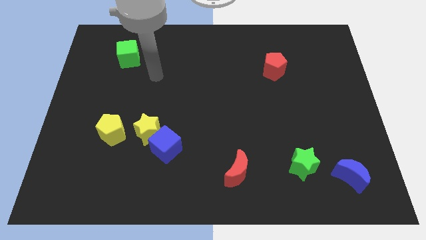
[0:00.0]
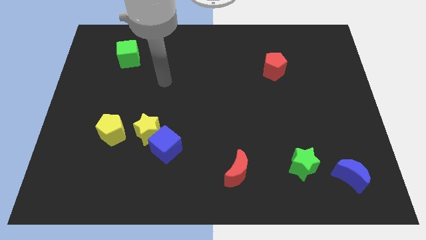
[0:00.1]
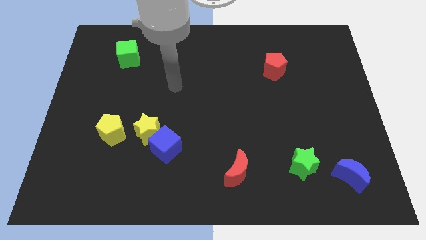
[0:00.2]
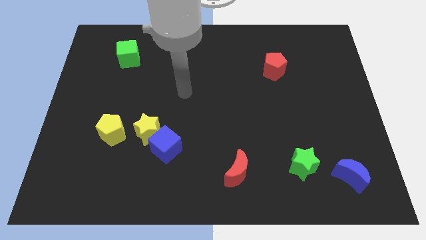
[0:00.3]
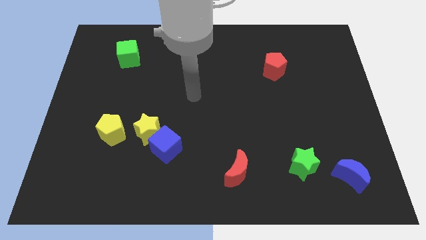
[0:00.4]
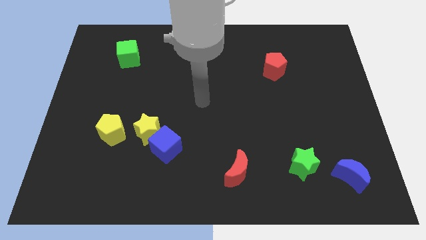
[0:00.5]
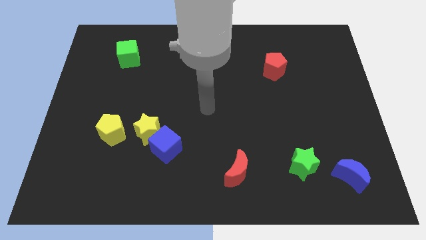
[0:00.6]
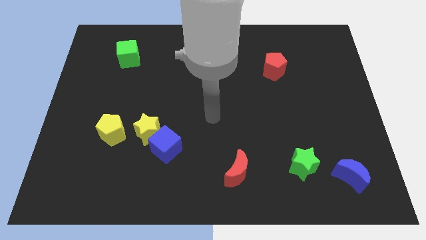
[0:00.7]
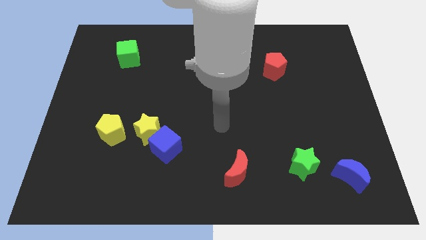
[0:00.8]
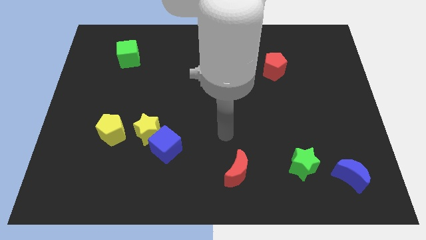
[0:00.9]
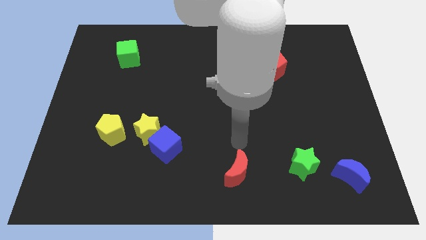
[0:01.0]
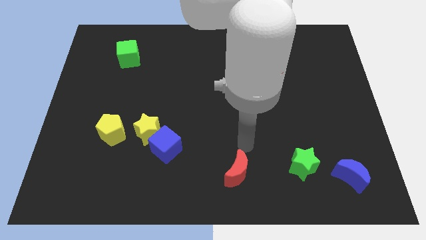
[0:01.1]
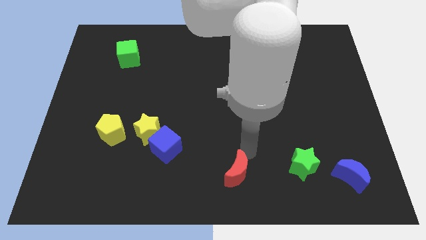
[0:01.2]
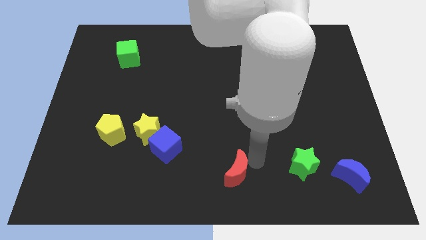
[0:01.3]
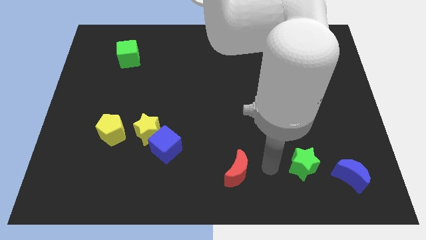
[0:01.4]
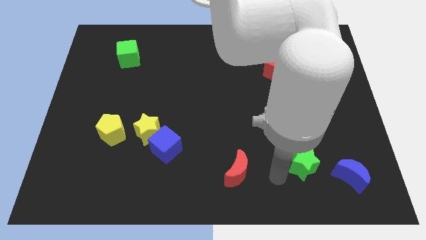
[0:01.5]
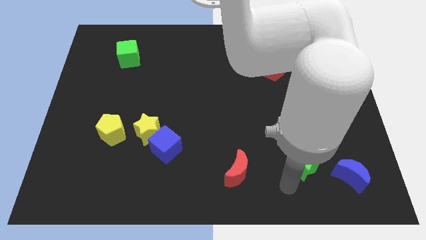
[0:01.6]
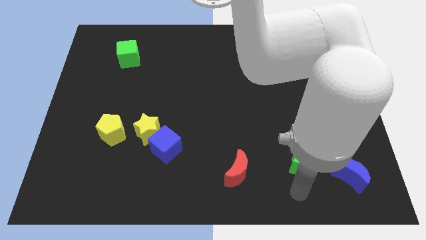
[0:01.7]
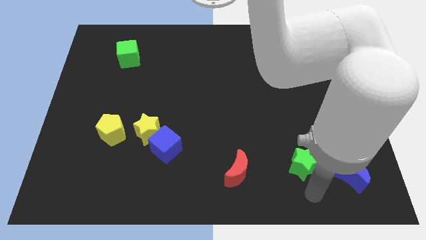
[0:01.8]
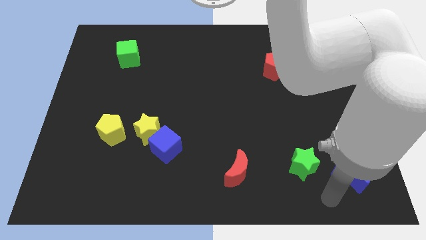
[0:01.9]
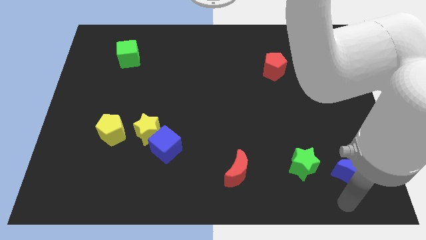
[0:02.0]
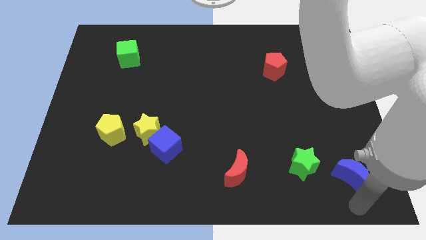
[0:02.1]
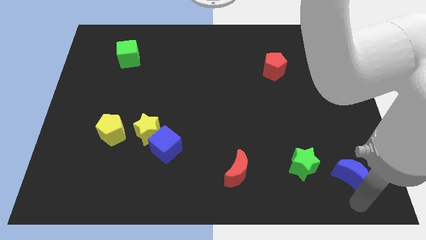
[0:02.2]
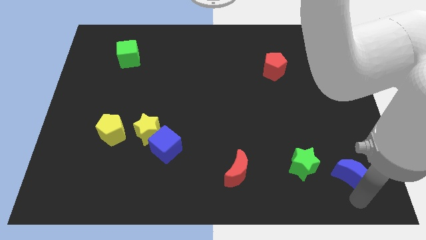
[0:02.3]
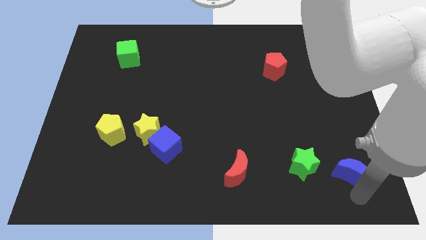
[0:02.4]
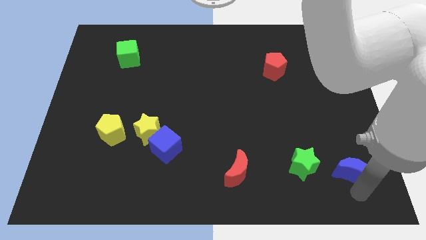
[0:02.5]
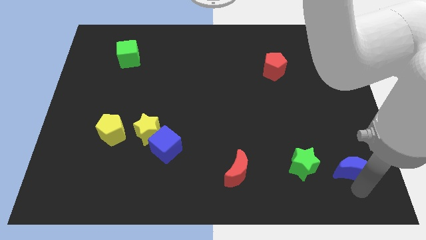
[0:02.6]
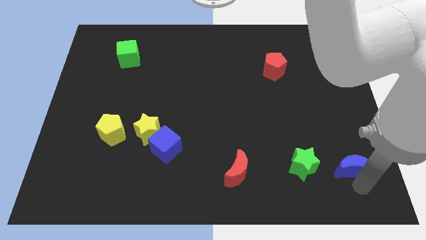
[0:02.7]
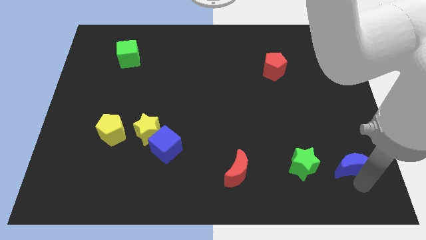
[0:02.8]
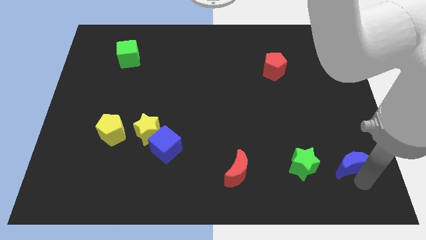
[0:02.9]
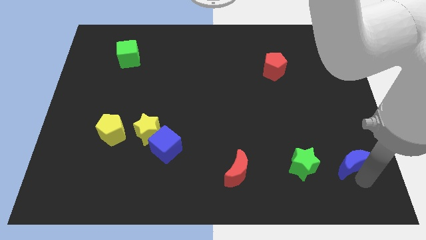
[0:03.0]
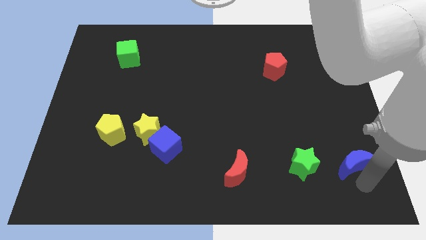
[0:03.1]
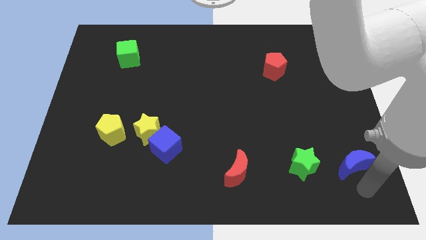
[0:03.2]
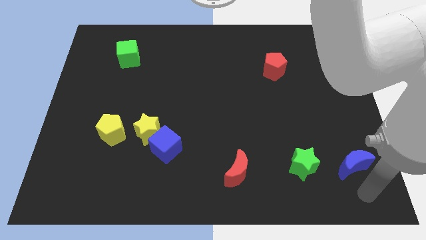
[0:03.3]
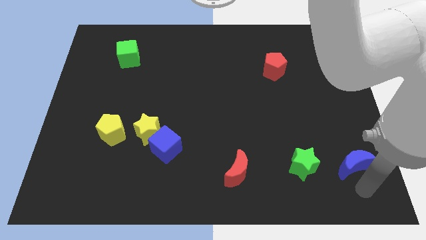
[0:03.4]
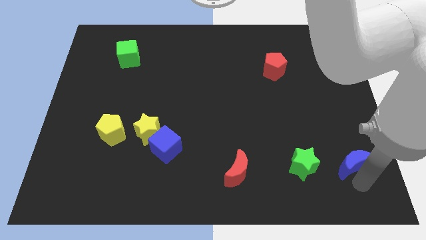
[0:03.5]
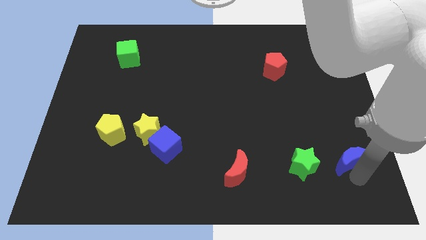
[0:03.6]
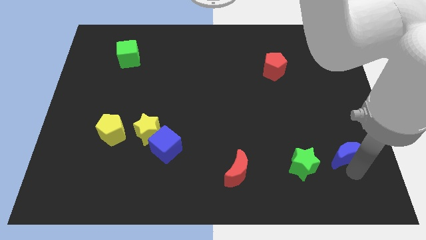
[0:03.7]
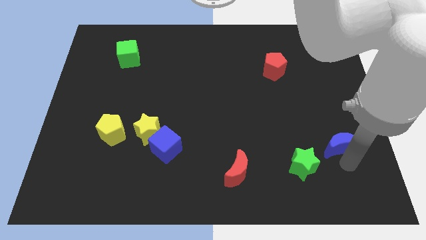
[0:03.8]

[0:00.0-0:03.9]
move the blue moon upwards somewhat

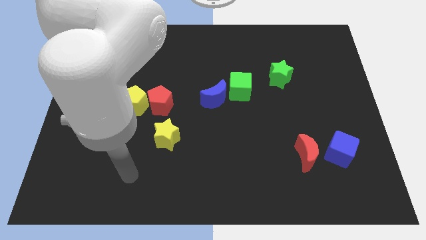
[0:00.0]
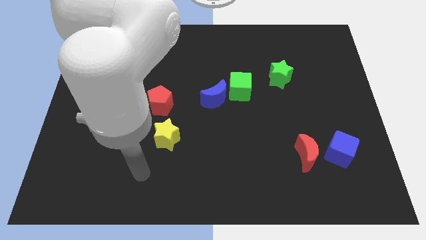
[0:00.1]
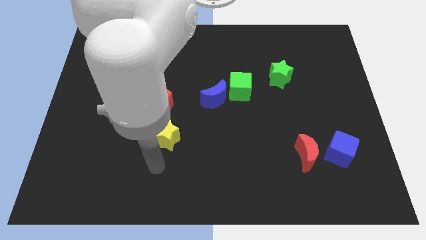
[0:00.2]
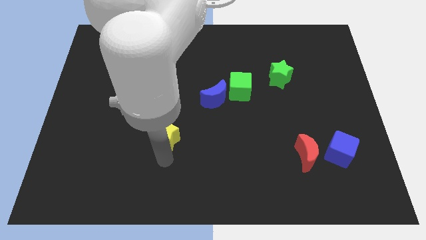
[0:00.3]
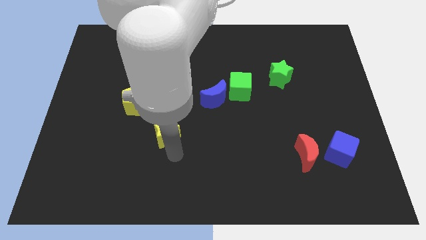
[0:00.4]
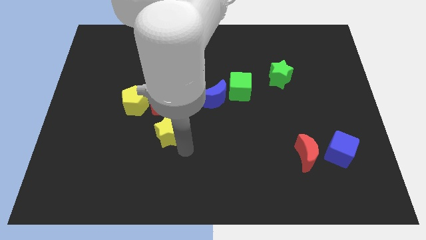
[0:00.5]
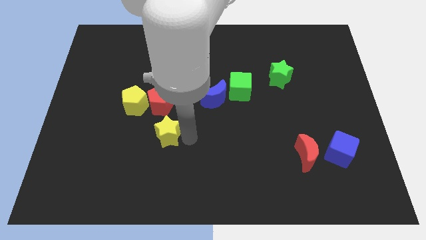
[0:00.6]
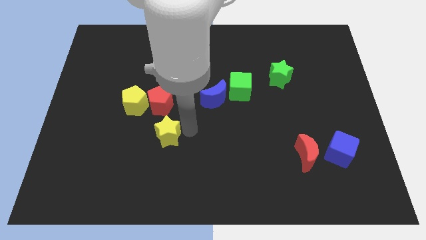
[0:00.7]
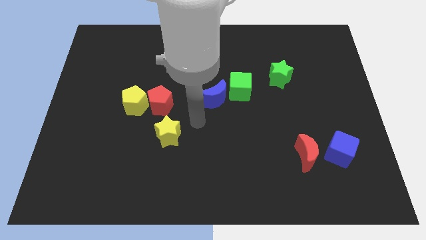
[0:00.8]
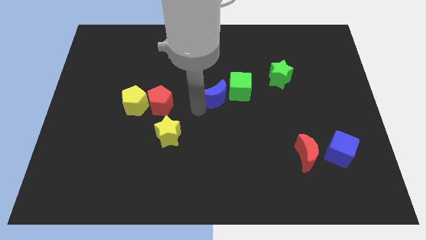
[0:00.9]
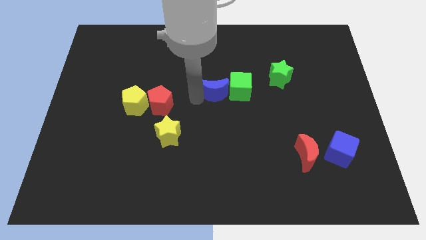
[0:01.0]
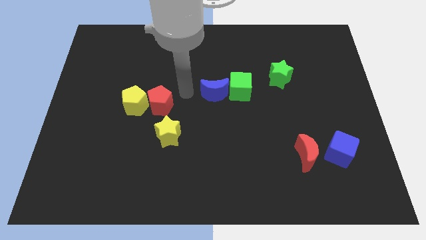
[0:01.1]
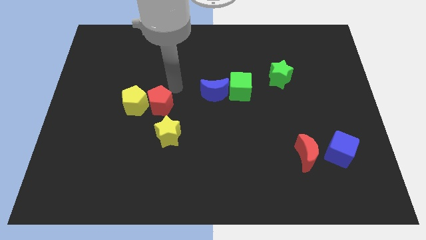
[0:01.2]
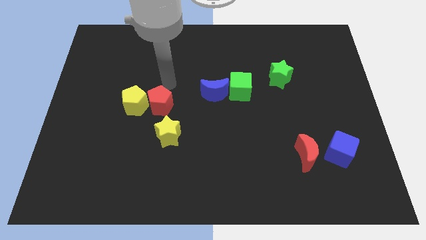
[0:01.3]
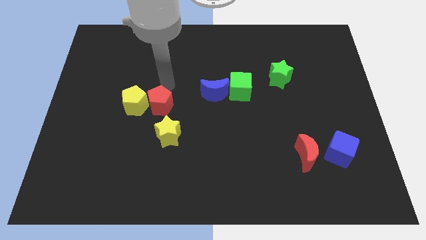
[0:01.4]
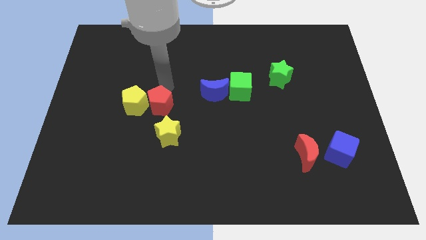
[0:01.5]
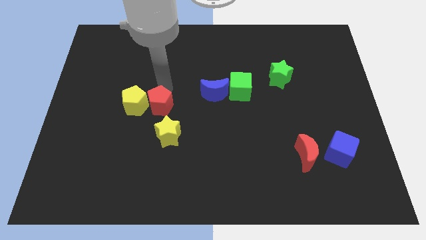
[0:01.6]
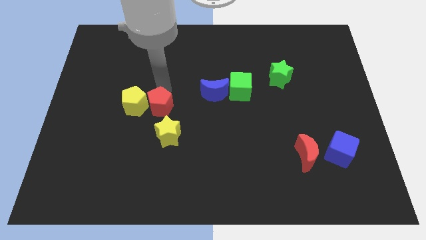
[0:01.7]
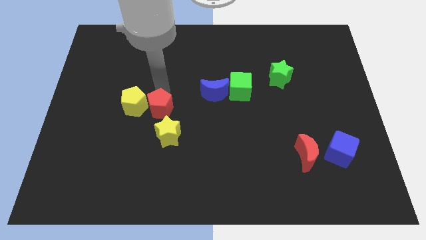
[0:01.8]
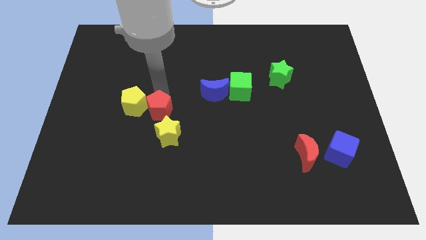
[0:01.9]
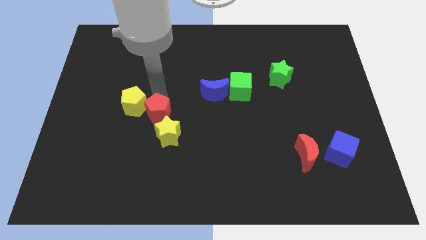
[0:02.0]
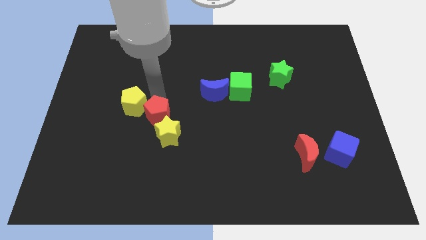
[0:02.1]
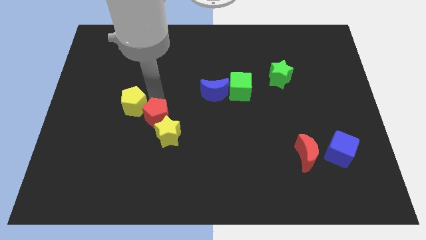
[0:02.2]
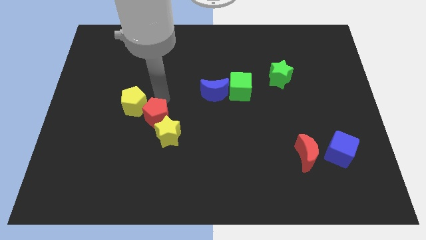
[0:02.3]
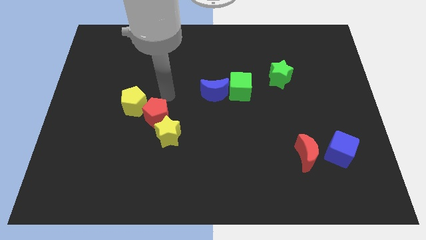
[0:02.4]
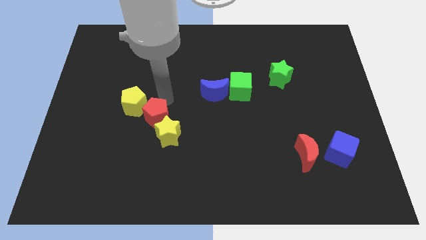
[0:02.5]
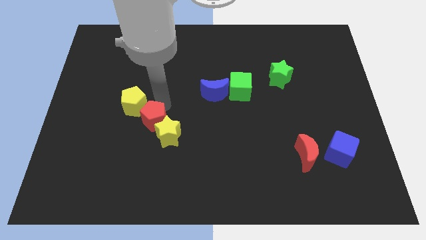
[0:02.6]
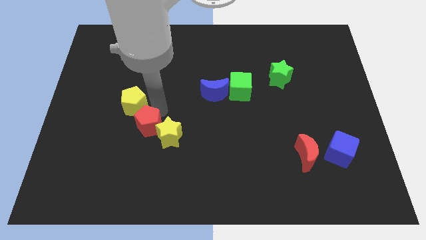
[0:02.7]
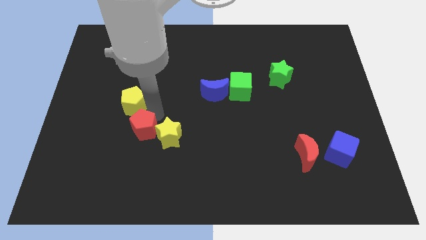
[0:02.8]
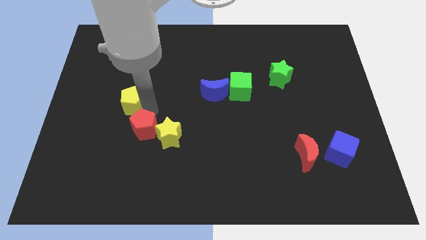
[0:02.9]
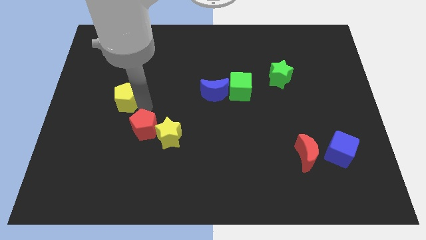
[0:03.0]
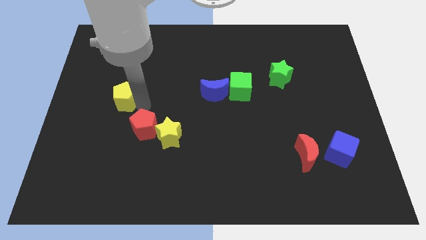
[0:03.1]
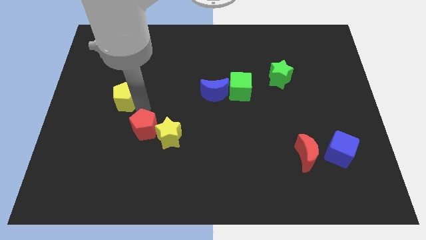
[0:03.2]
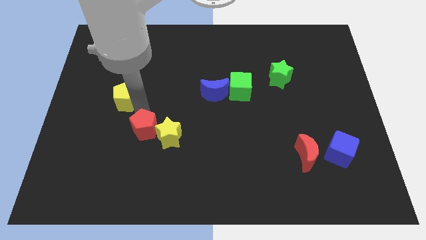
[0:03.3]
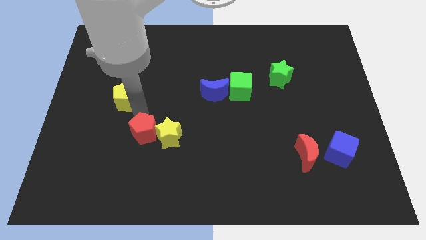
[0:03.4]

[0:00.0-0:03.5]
move the red pentagon slightly down

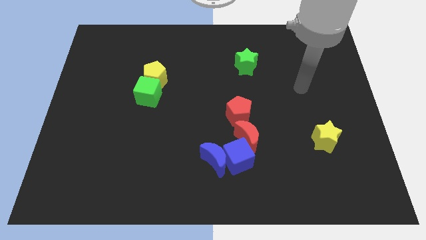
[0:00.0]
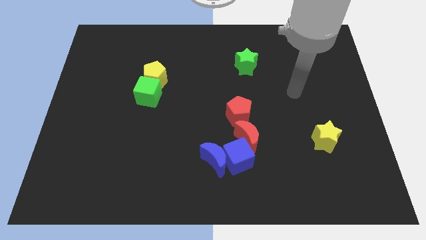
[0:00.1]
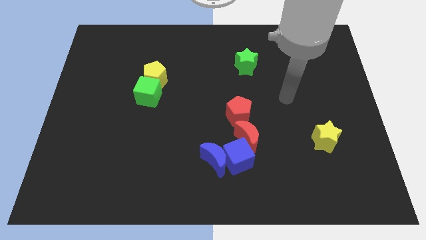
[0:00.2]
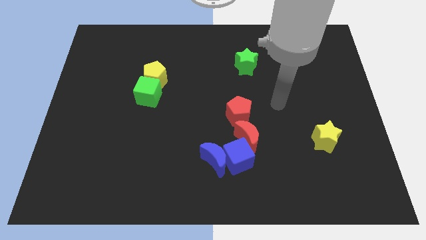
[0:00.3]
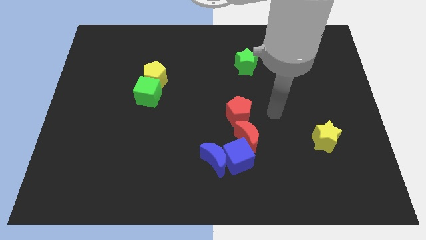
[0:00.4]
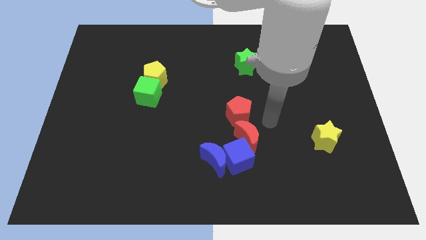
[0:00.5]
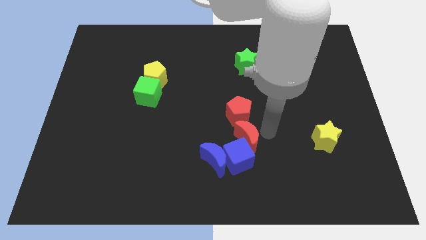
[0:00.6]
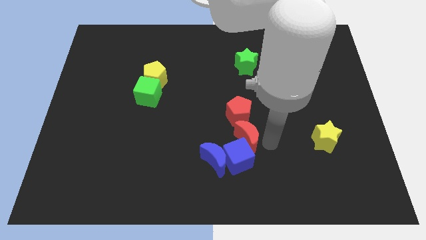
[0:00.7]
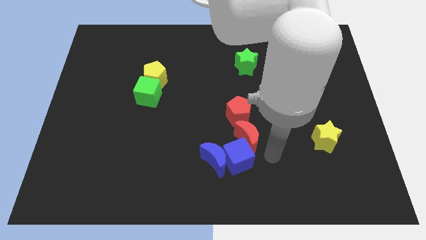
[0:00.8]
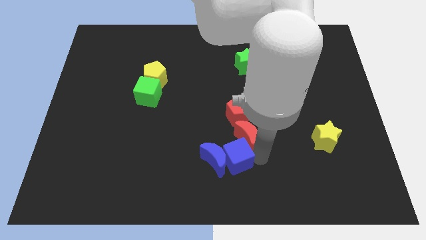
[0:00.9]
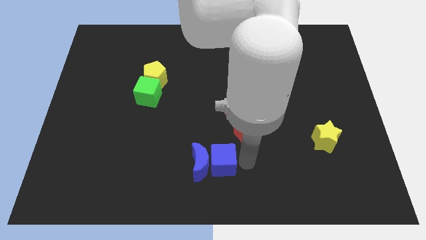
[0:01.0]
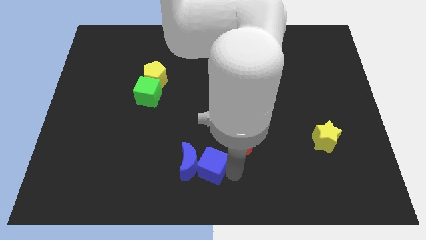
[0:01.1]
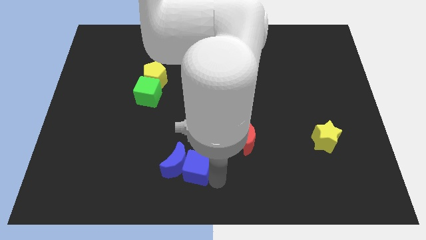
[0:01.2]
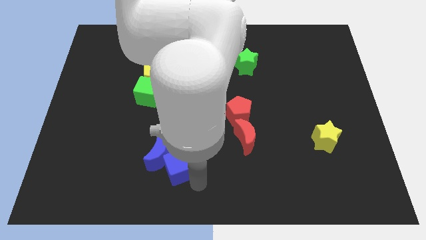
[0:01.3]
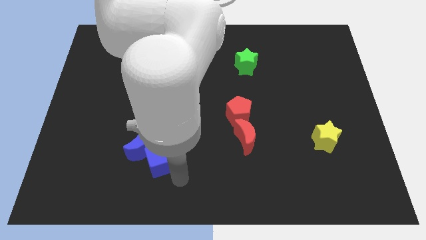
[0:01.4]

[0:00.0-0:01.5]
slightly slide the blue moon upwards and to the left diagonally
